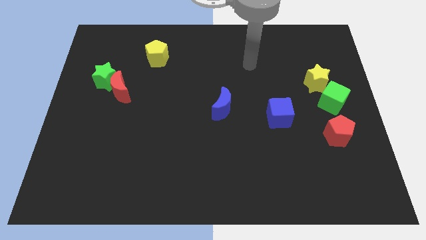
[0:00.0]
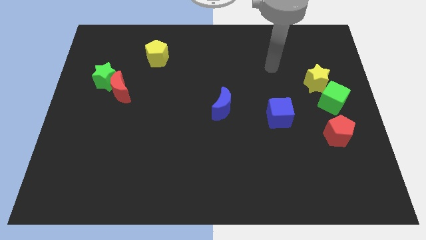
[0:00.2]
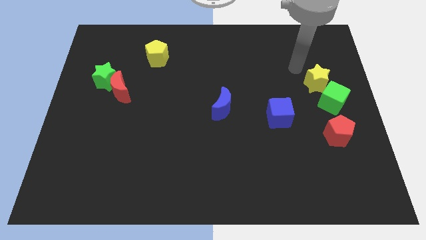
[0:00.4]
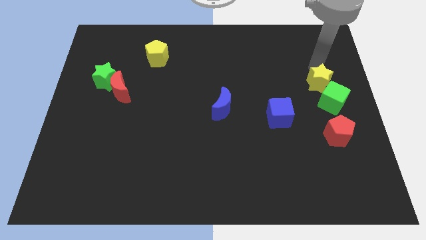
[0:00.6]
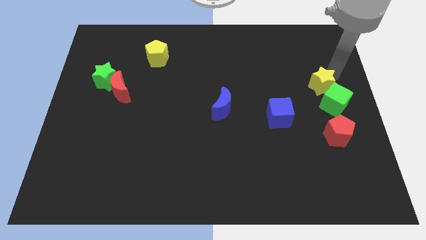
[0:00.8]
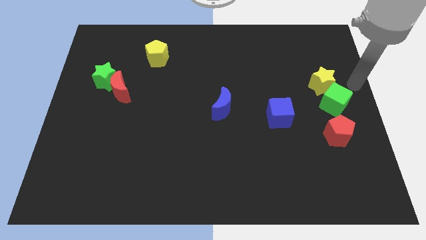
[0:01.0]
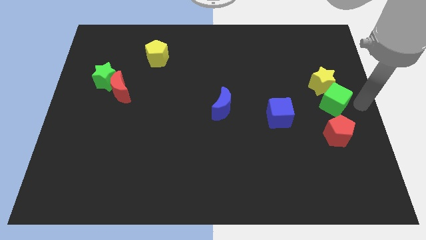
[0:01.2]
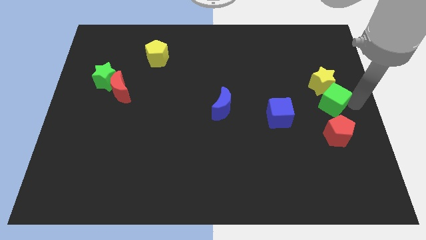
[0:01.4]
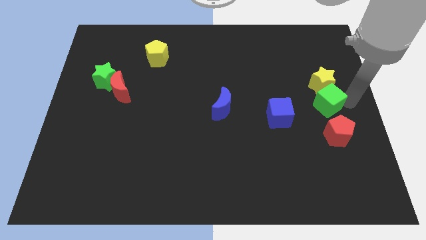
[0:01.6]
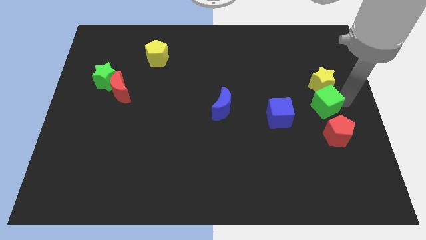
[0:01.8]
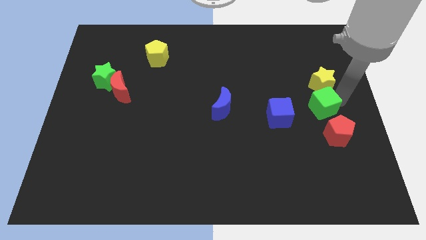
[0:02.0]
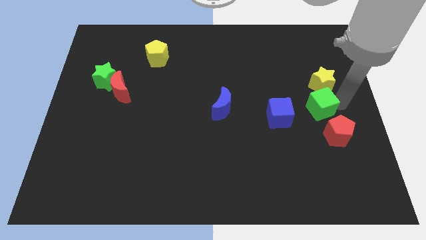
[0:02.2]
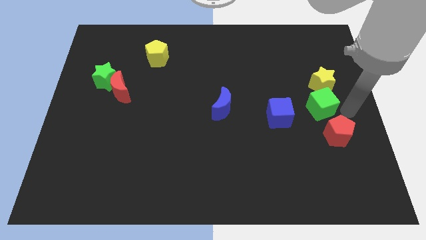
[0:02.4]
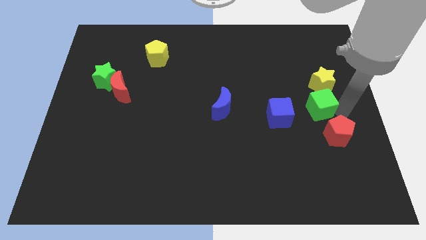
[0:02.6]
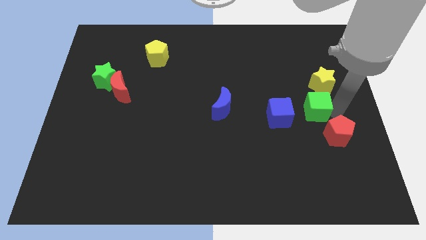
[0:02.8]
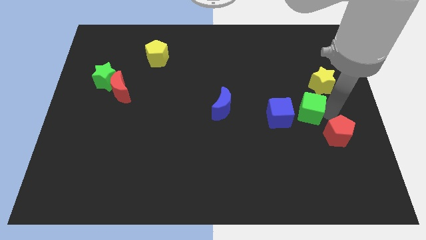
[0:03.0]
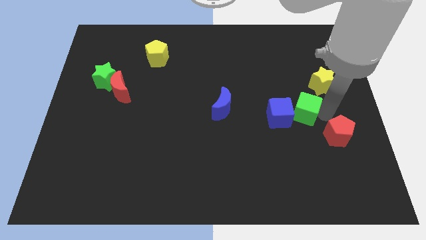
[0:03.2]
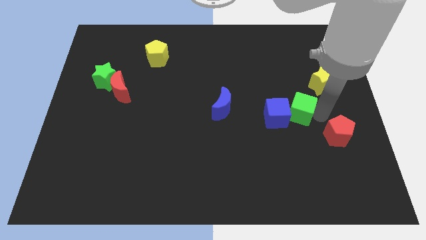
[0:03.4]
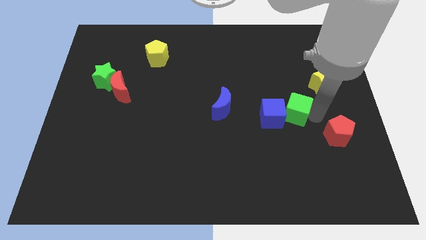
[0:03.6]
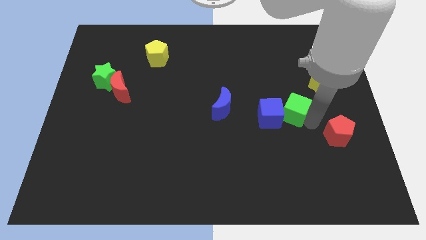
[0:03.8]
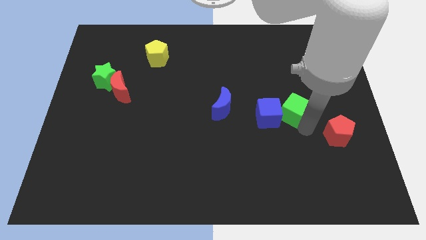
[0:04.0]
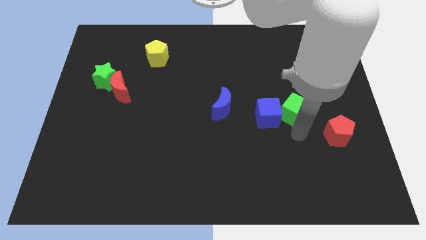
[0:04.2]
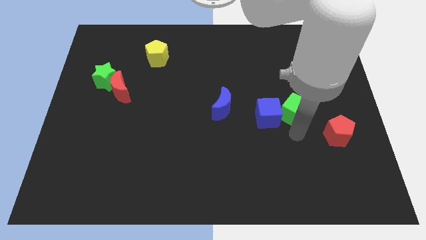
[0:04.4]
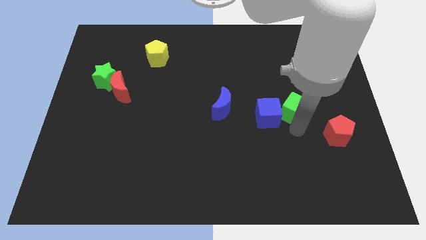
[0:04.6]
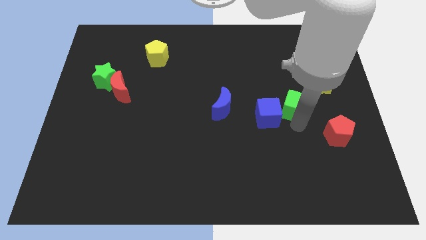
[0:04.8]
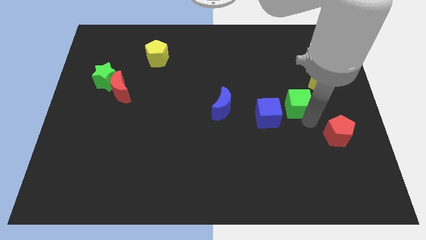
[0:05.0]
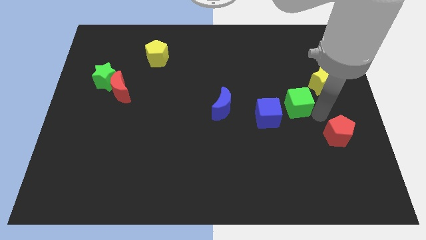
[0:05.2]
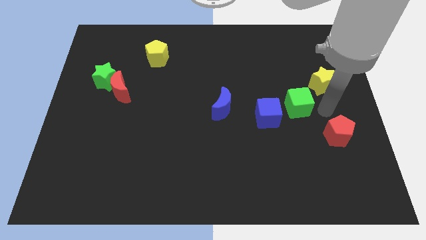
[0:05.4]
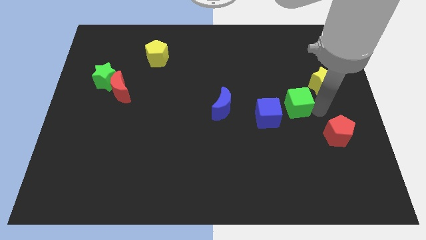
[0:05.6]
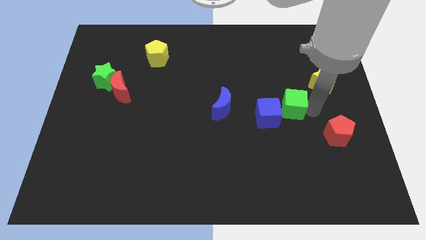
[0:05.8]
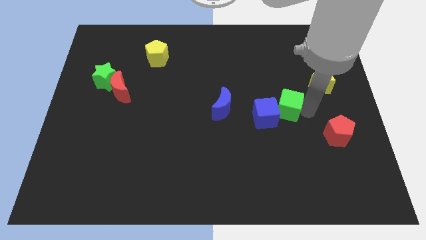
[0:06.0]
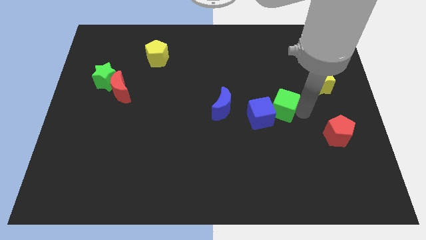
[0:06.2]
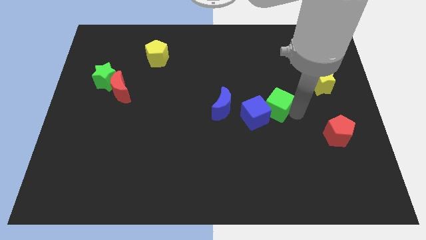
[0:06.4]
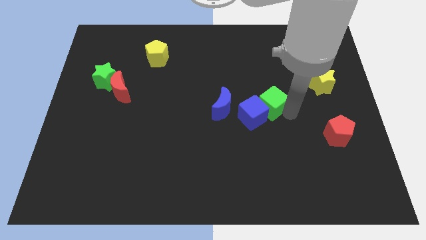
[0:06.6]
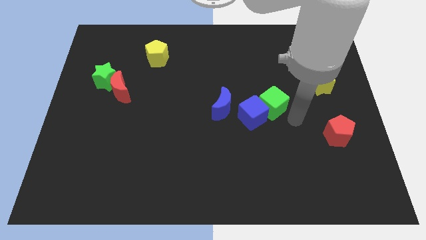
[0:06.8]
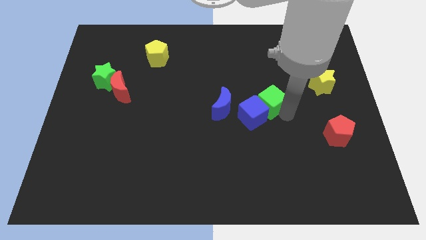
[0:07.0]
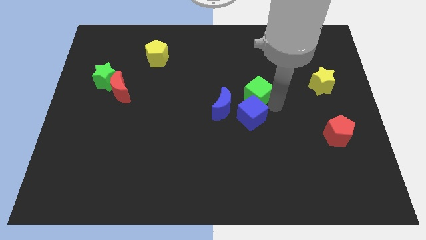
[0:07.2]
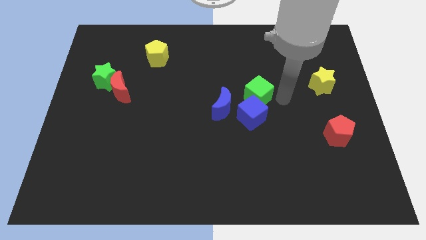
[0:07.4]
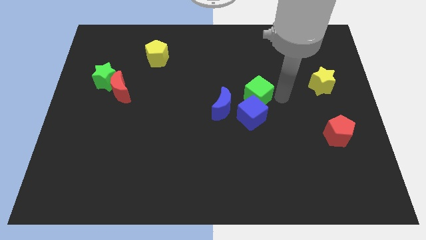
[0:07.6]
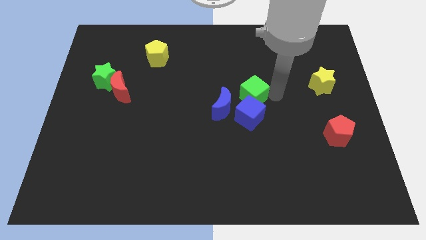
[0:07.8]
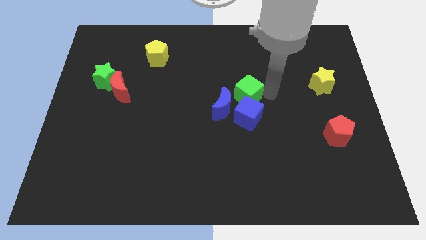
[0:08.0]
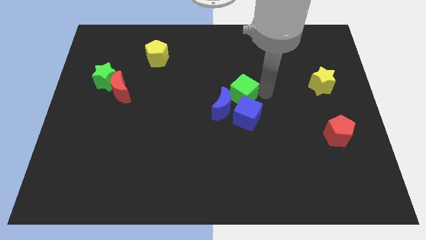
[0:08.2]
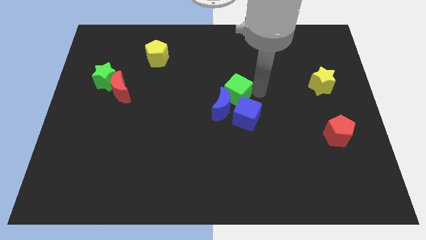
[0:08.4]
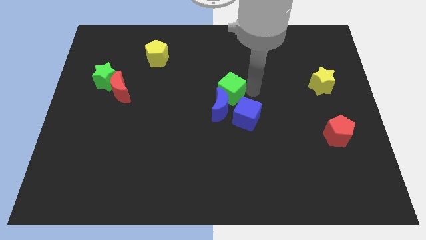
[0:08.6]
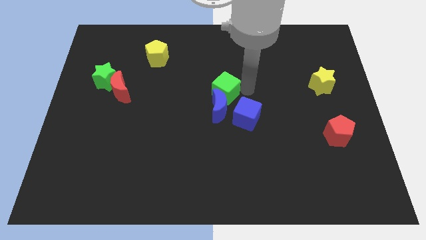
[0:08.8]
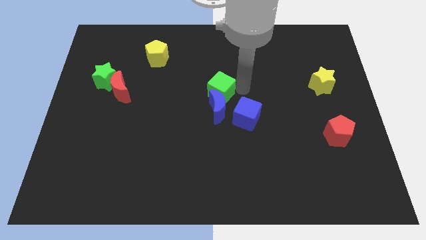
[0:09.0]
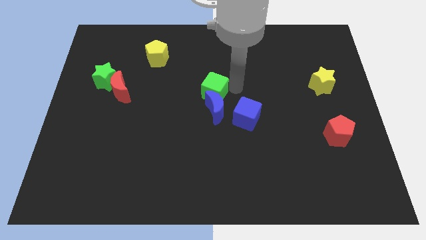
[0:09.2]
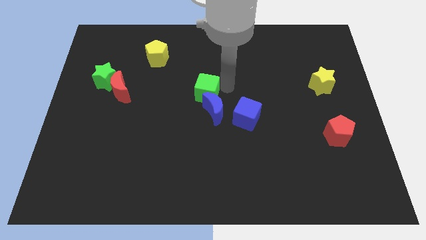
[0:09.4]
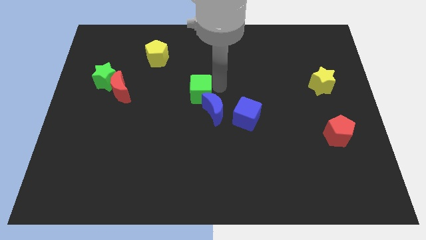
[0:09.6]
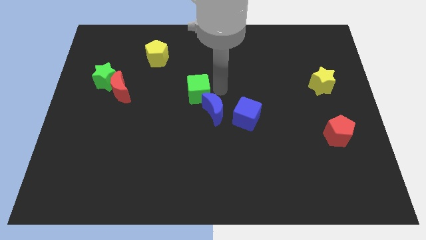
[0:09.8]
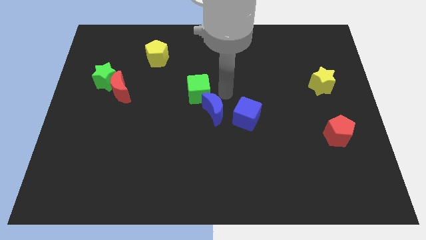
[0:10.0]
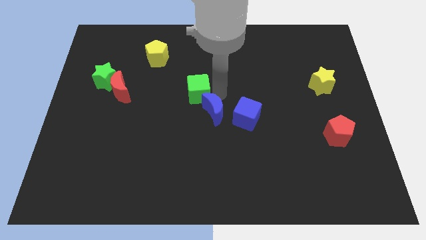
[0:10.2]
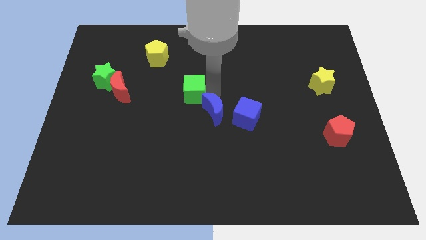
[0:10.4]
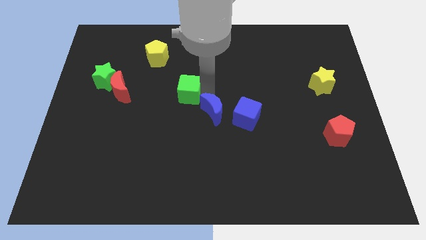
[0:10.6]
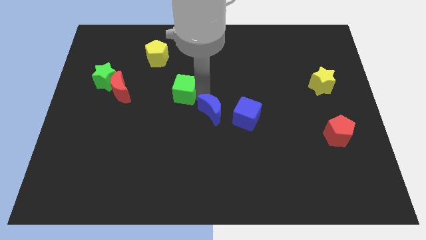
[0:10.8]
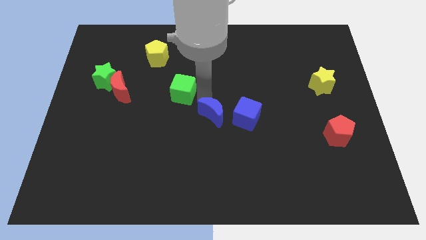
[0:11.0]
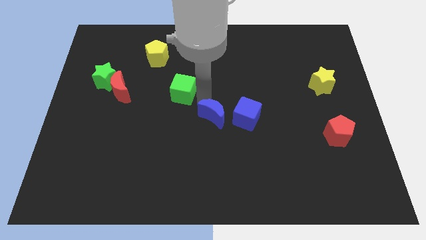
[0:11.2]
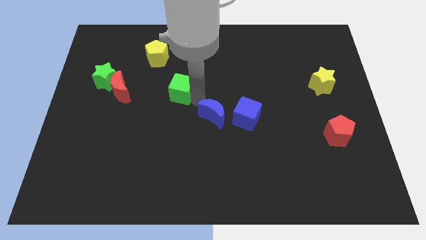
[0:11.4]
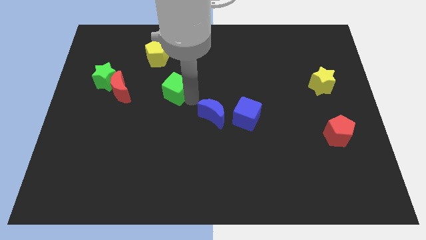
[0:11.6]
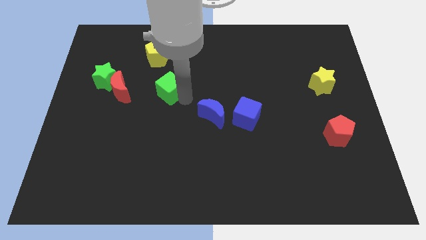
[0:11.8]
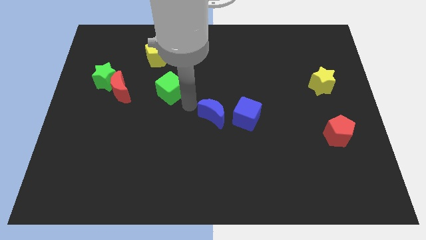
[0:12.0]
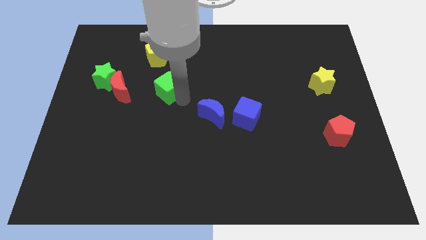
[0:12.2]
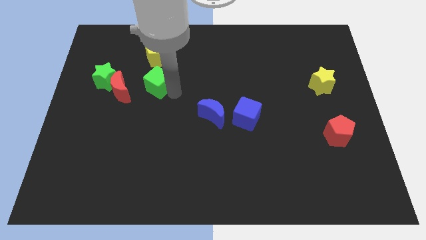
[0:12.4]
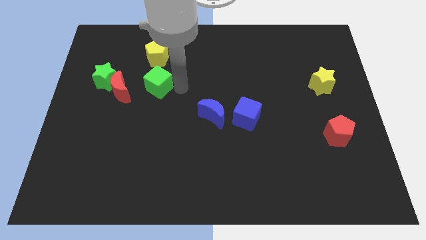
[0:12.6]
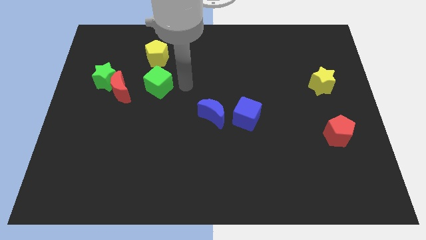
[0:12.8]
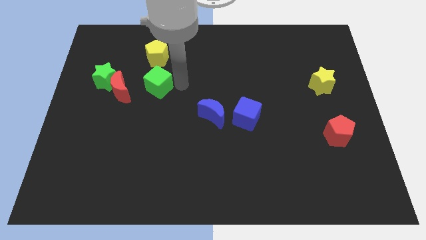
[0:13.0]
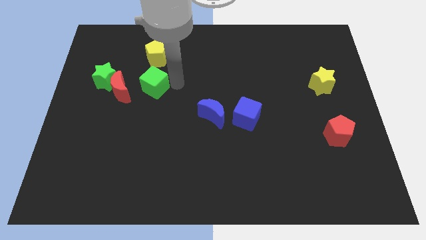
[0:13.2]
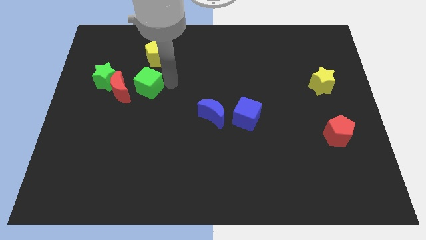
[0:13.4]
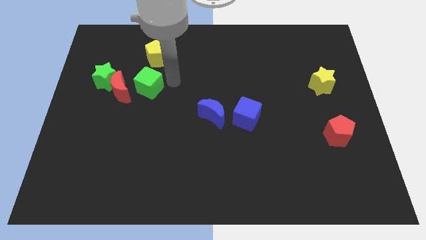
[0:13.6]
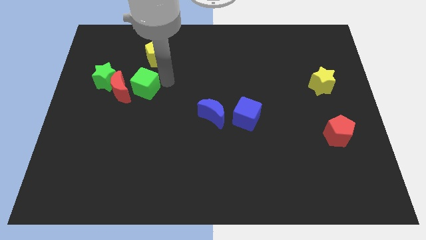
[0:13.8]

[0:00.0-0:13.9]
push the green cube next to the red moon
